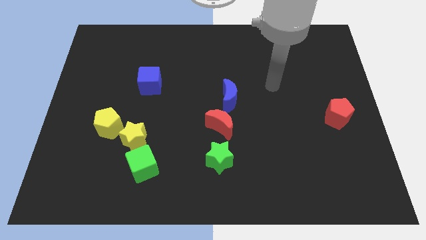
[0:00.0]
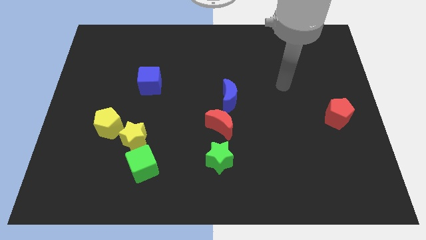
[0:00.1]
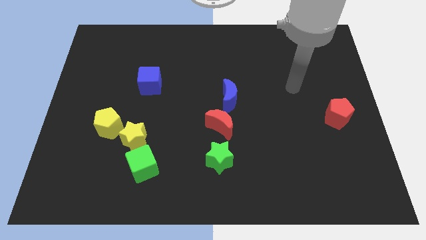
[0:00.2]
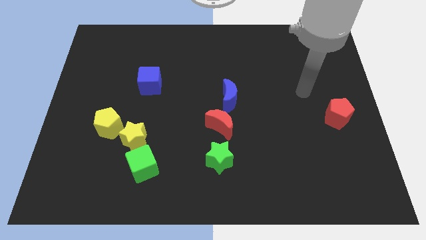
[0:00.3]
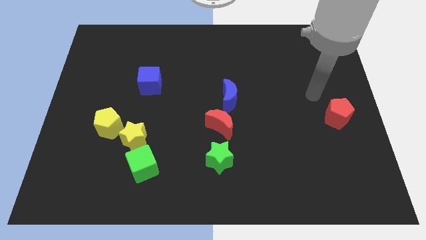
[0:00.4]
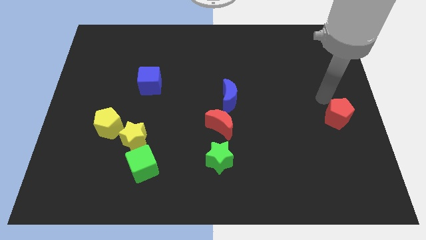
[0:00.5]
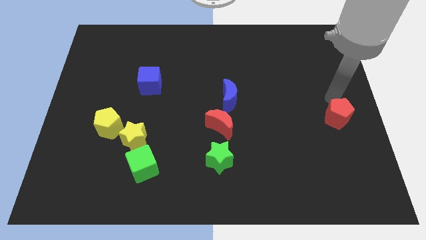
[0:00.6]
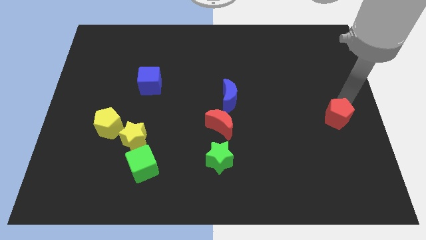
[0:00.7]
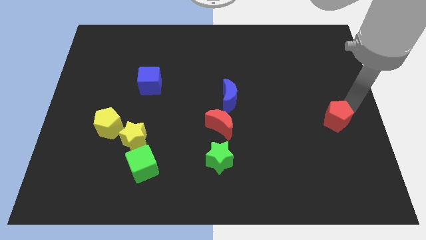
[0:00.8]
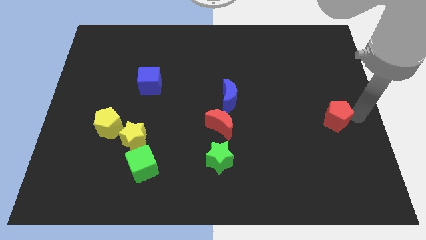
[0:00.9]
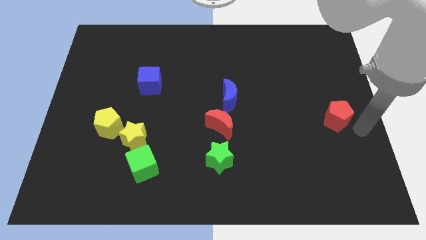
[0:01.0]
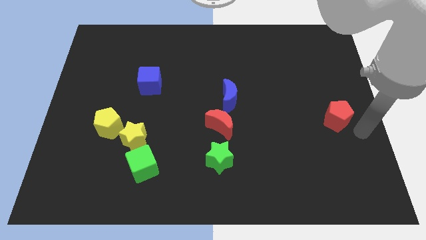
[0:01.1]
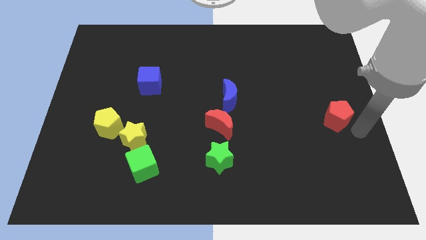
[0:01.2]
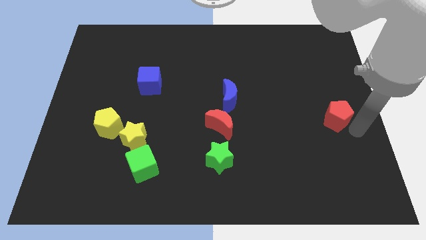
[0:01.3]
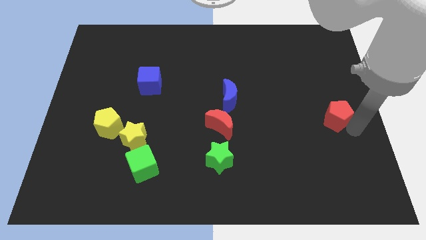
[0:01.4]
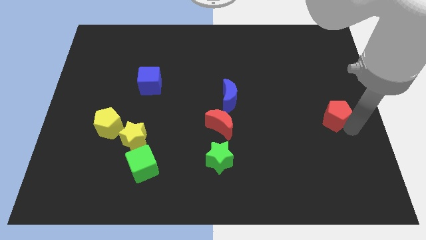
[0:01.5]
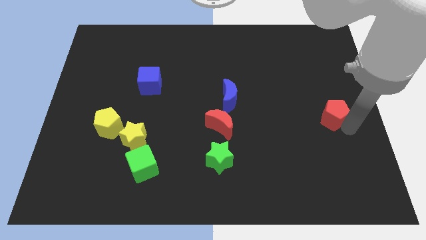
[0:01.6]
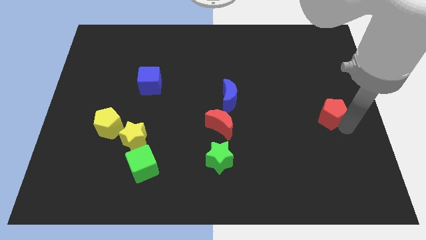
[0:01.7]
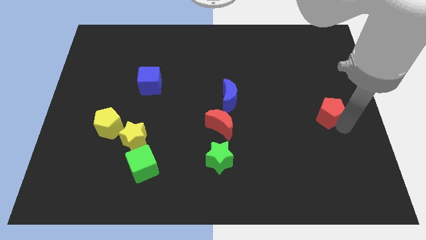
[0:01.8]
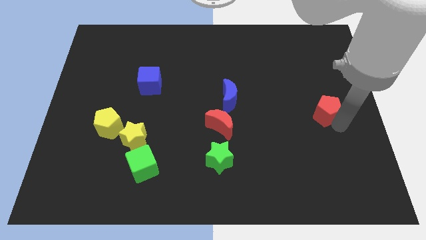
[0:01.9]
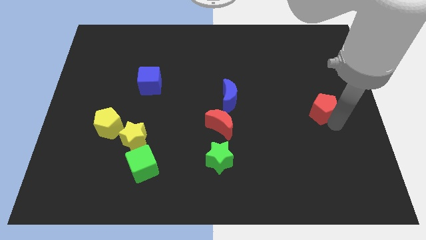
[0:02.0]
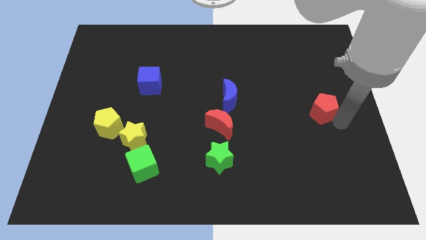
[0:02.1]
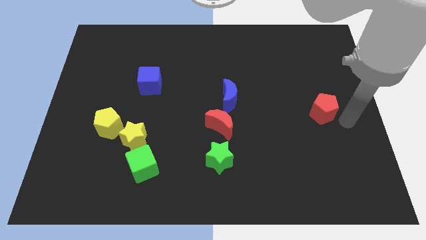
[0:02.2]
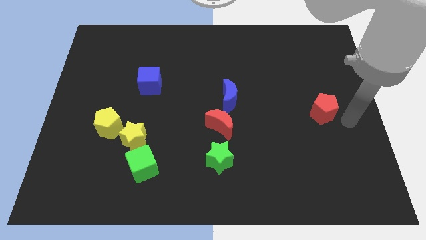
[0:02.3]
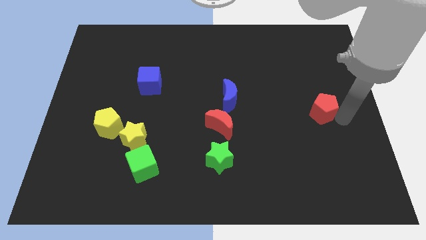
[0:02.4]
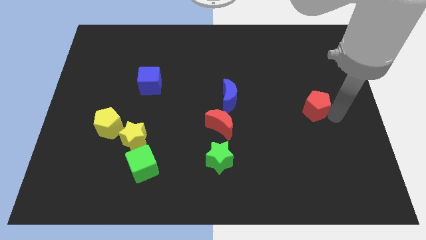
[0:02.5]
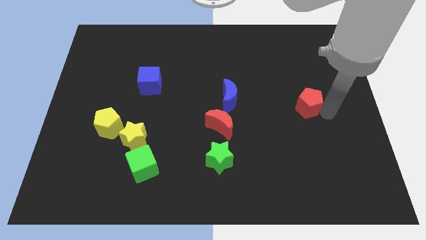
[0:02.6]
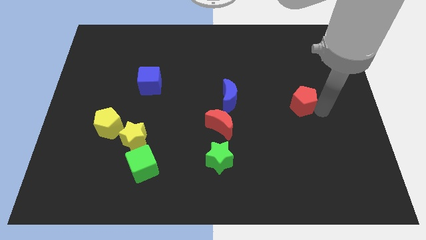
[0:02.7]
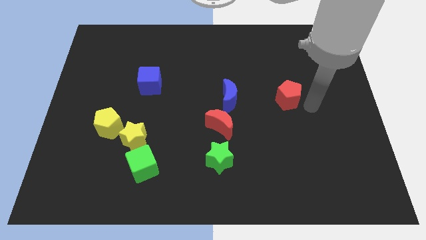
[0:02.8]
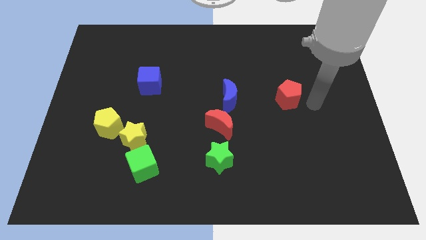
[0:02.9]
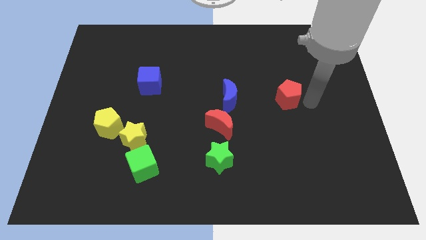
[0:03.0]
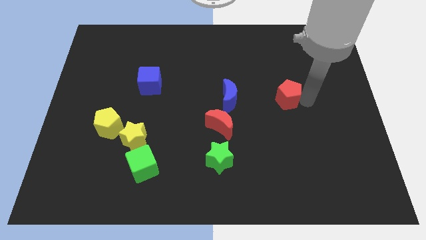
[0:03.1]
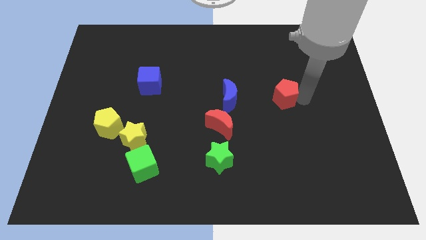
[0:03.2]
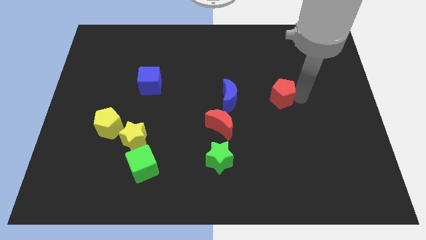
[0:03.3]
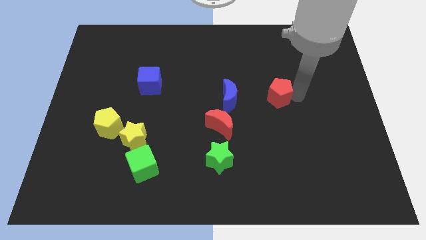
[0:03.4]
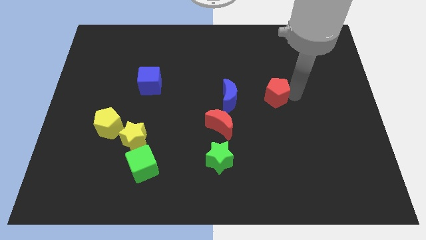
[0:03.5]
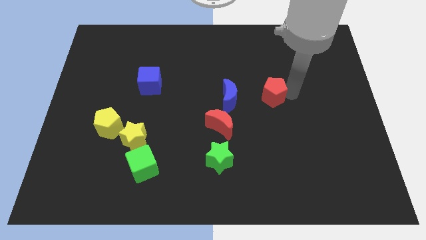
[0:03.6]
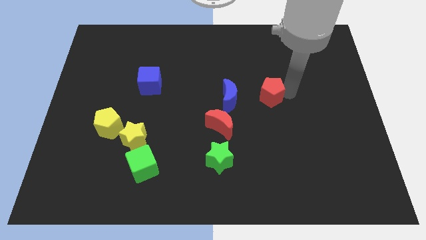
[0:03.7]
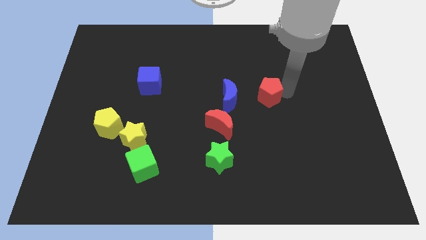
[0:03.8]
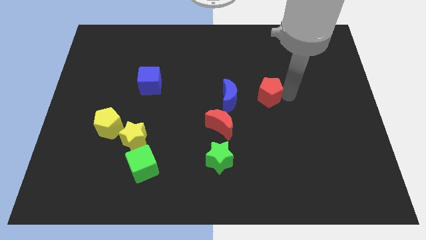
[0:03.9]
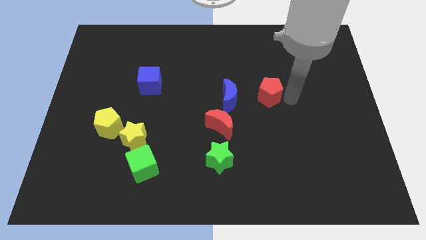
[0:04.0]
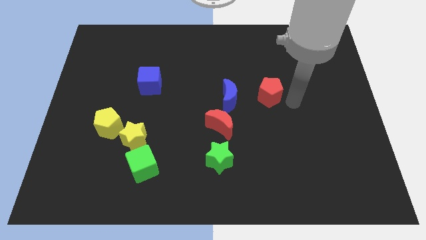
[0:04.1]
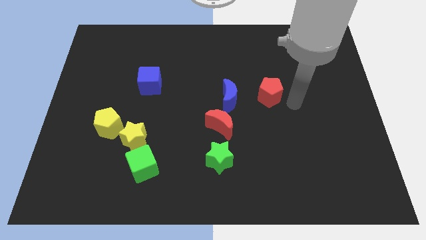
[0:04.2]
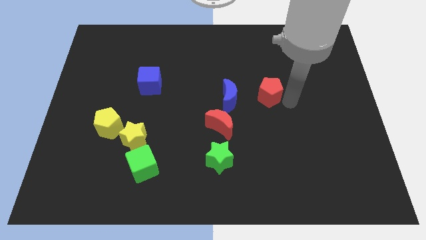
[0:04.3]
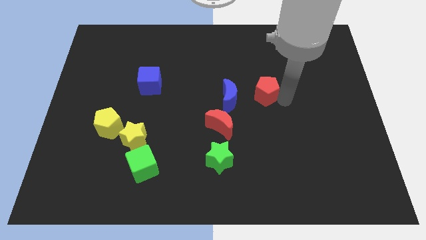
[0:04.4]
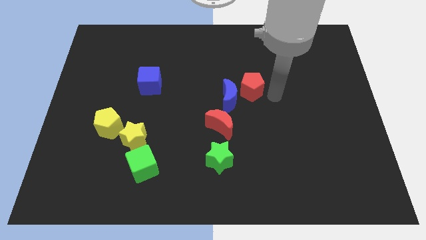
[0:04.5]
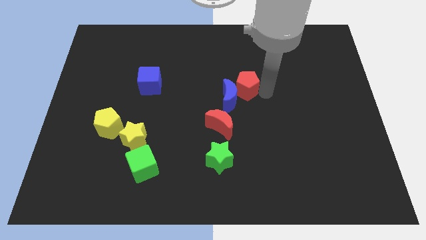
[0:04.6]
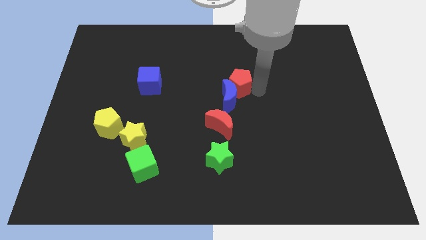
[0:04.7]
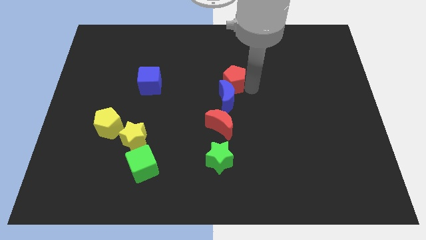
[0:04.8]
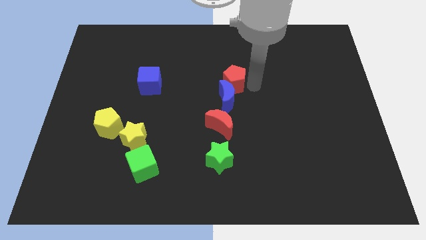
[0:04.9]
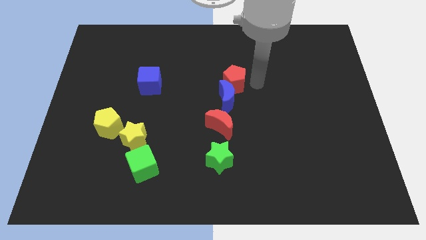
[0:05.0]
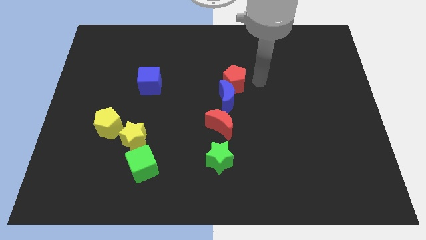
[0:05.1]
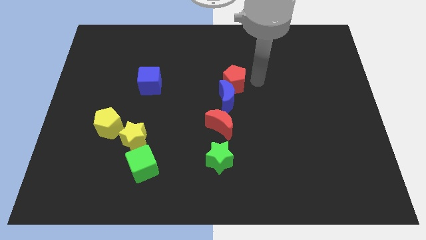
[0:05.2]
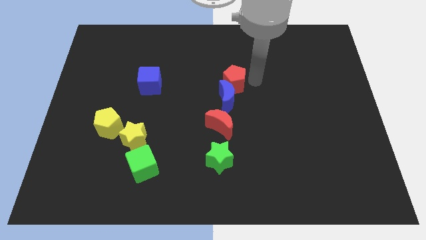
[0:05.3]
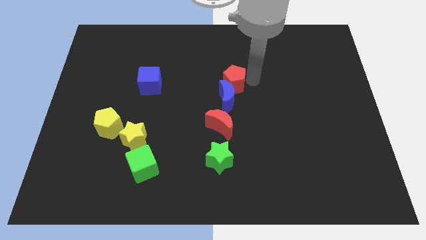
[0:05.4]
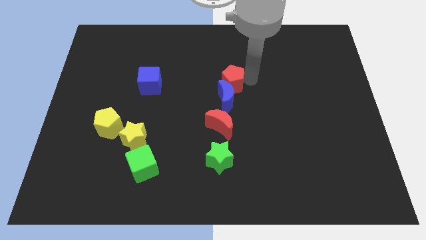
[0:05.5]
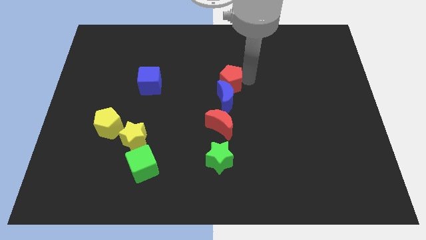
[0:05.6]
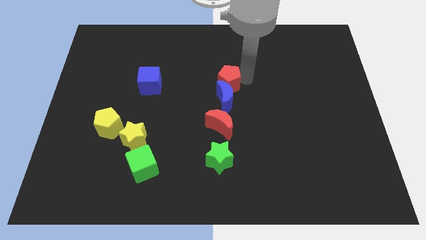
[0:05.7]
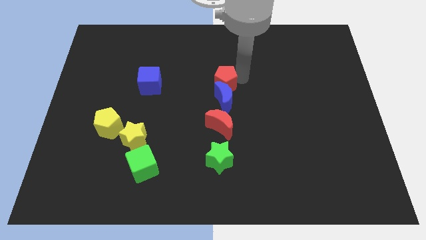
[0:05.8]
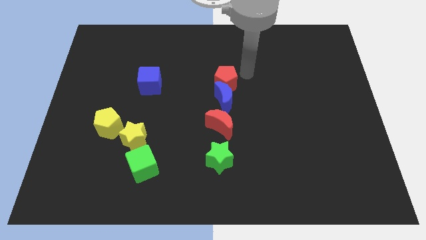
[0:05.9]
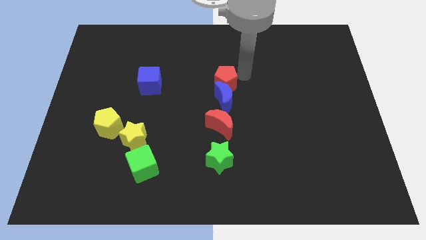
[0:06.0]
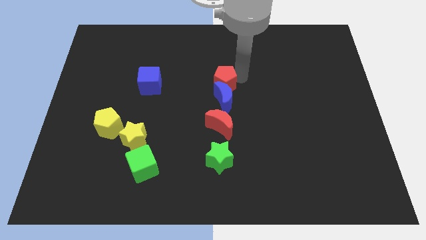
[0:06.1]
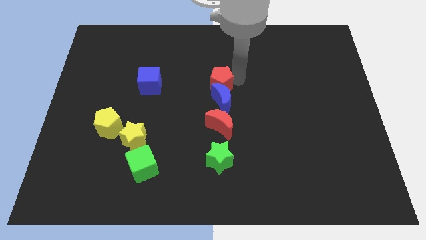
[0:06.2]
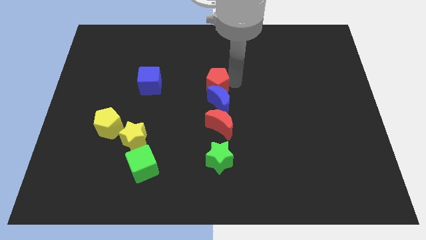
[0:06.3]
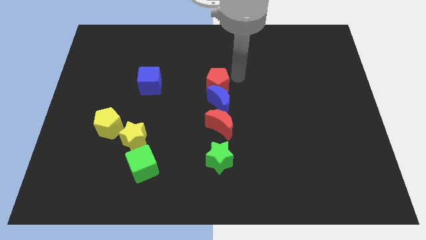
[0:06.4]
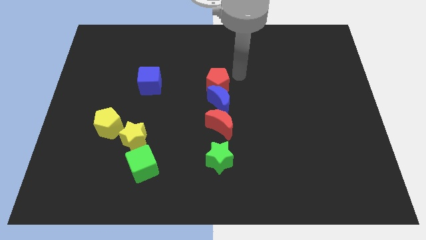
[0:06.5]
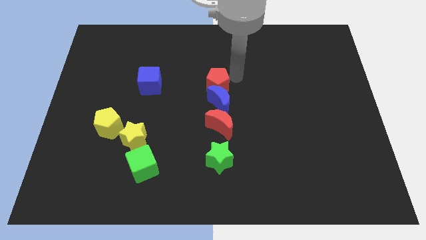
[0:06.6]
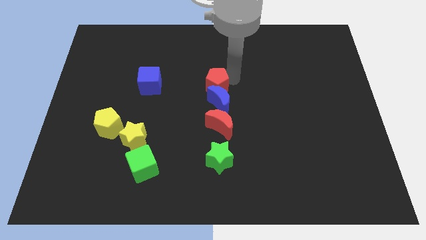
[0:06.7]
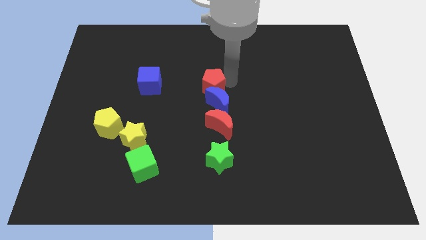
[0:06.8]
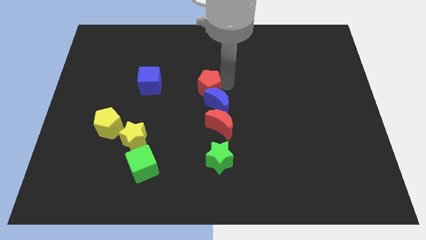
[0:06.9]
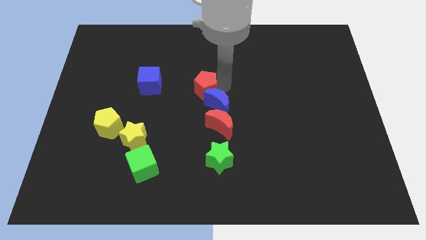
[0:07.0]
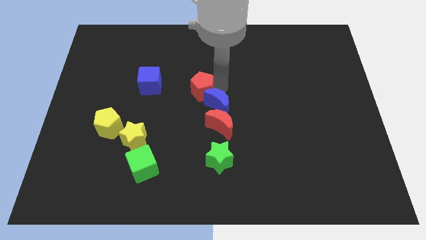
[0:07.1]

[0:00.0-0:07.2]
push the red pentagon to the left of the blue moon
